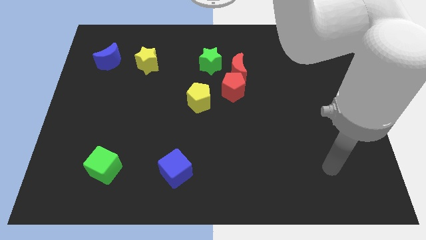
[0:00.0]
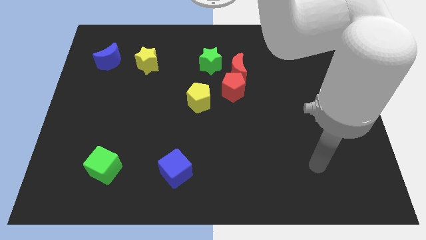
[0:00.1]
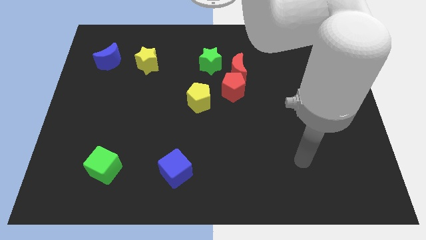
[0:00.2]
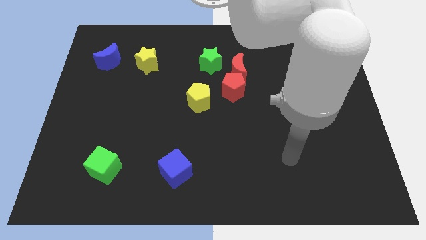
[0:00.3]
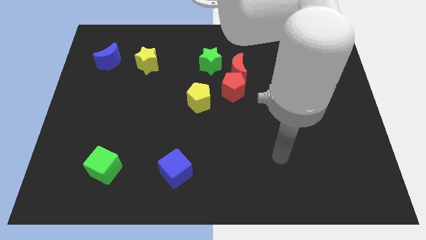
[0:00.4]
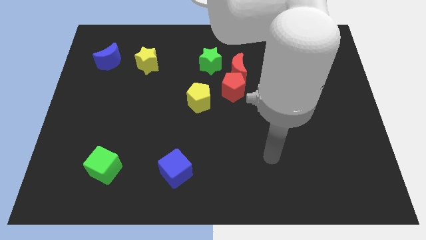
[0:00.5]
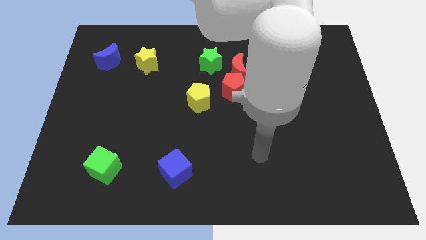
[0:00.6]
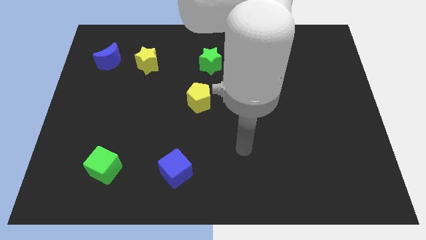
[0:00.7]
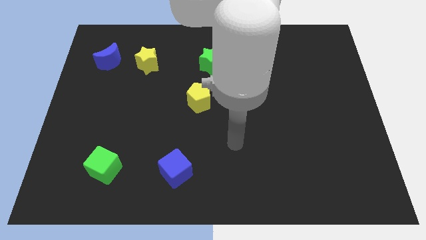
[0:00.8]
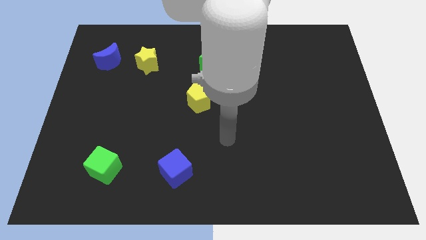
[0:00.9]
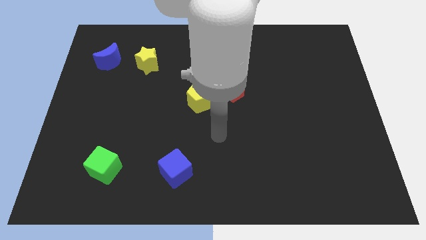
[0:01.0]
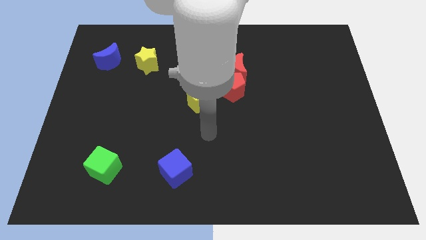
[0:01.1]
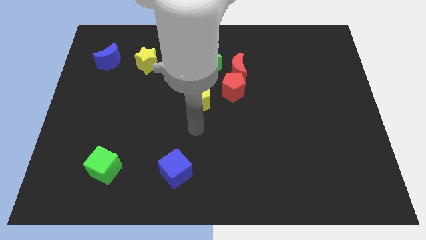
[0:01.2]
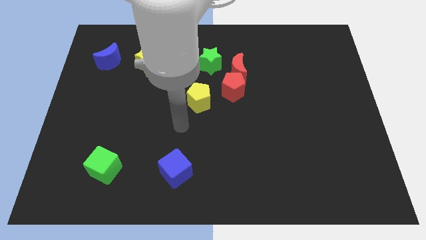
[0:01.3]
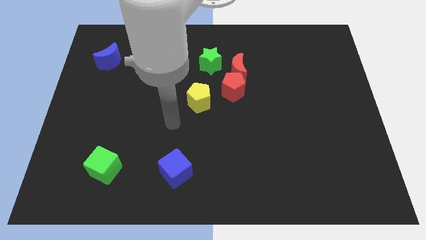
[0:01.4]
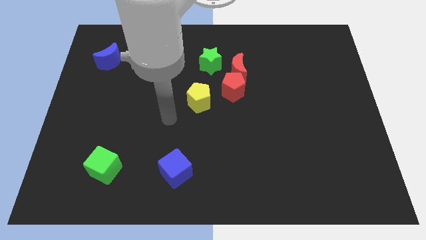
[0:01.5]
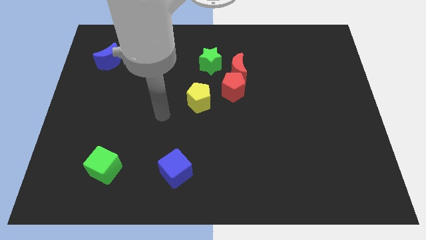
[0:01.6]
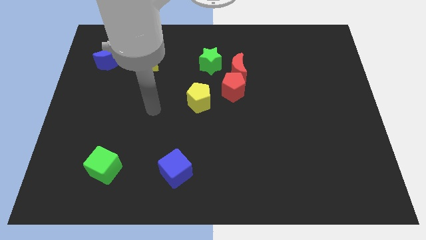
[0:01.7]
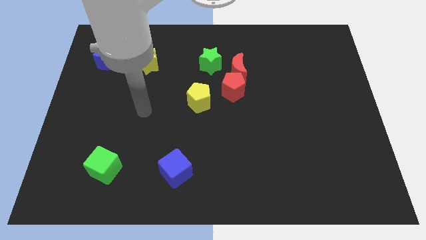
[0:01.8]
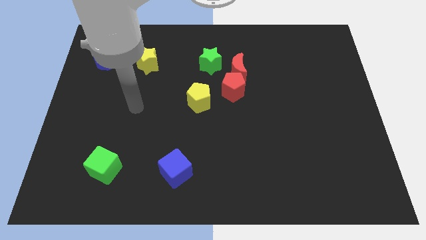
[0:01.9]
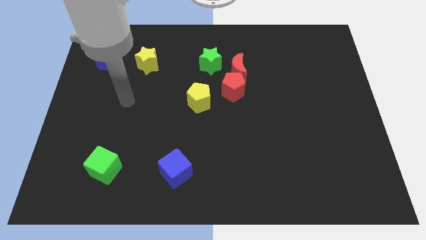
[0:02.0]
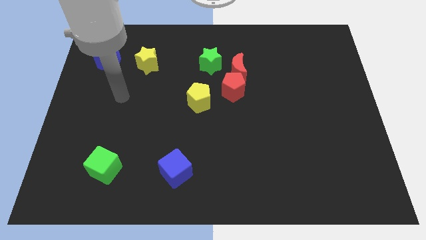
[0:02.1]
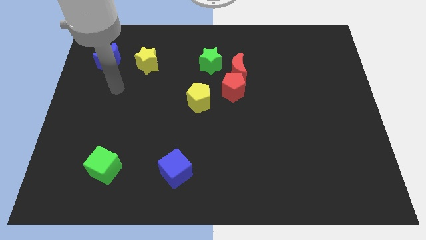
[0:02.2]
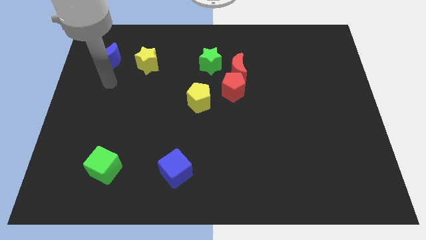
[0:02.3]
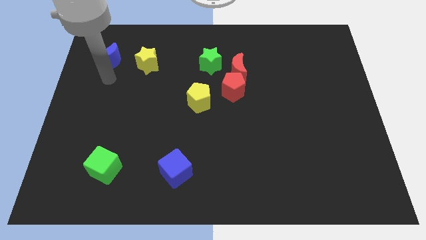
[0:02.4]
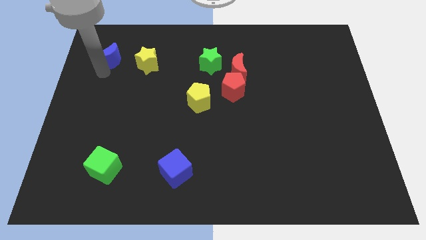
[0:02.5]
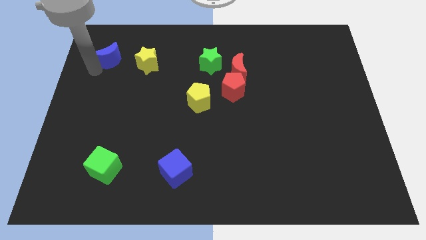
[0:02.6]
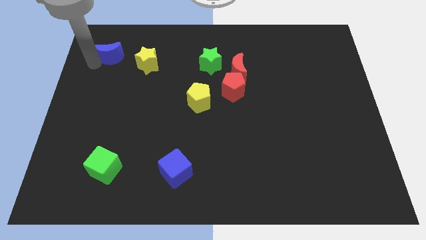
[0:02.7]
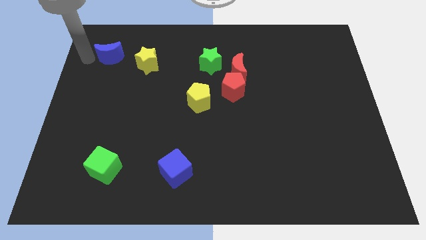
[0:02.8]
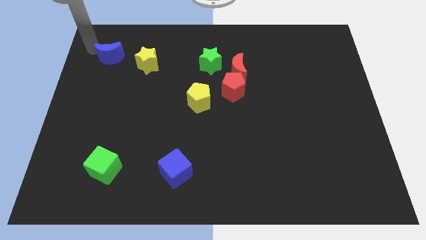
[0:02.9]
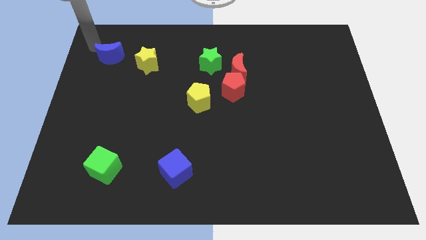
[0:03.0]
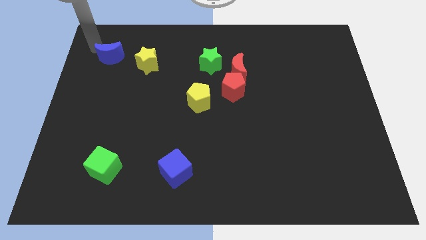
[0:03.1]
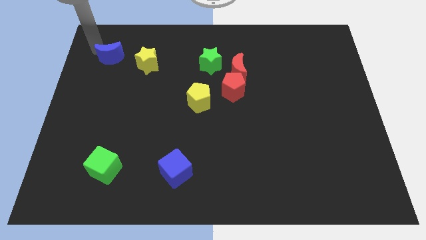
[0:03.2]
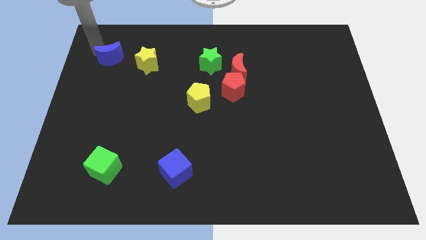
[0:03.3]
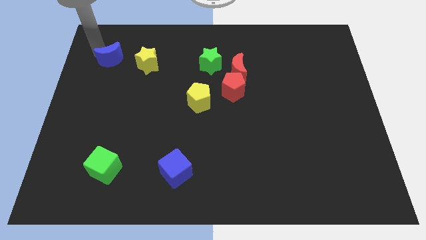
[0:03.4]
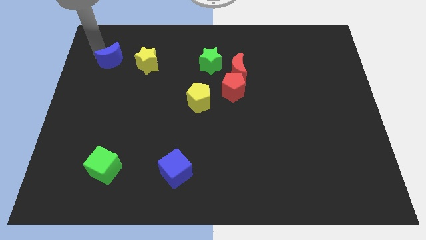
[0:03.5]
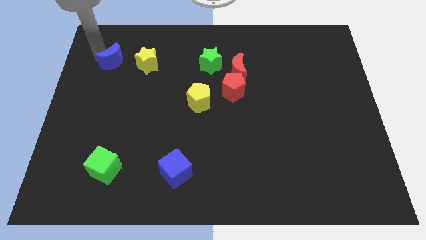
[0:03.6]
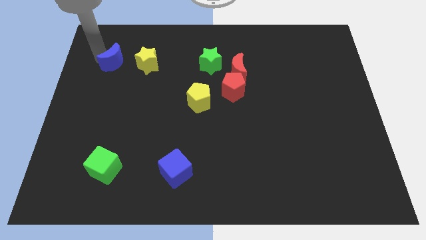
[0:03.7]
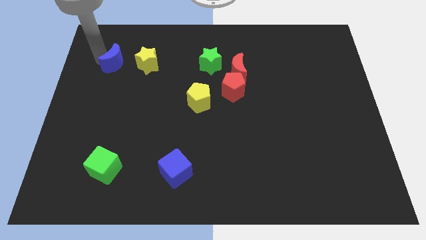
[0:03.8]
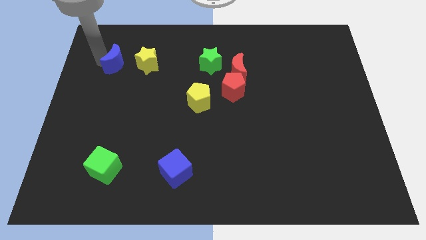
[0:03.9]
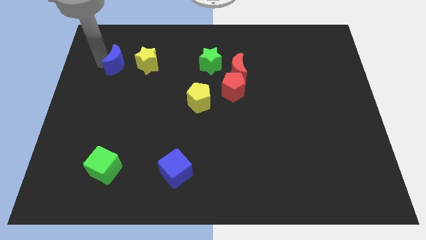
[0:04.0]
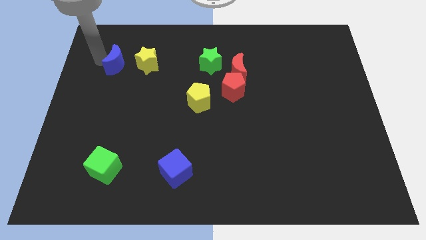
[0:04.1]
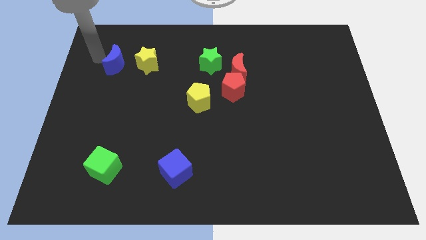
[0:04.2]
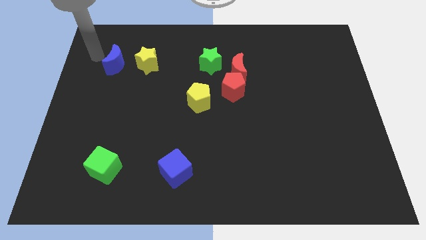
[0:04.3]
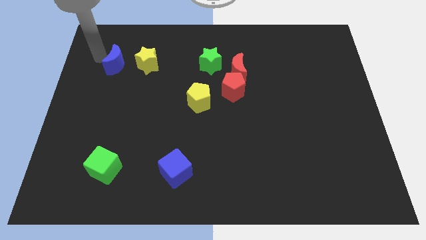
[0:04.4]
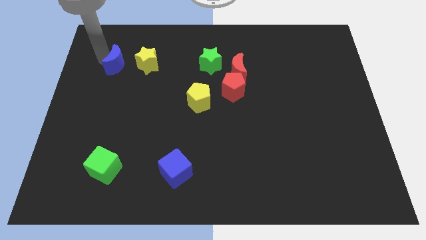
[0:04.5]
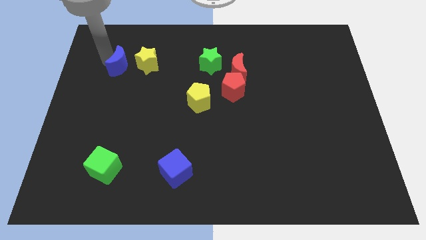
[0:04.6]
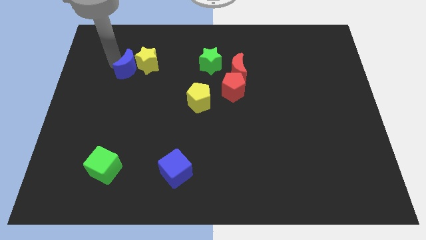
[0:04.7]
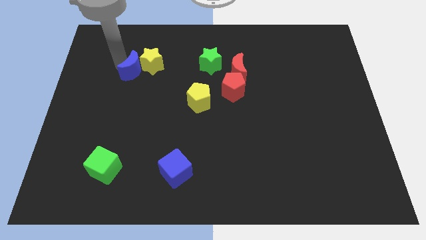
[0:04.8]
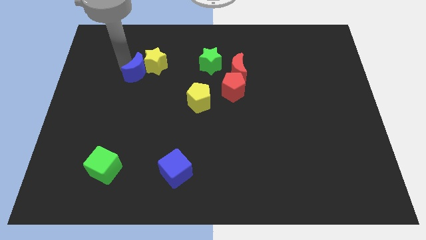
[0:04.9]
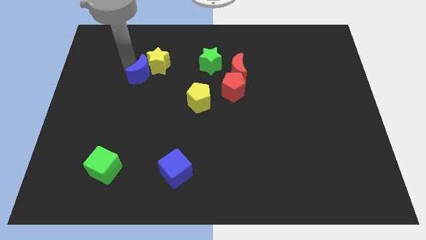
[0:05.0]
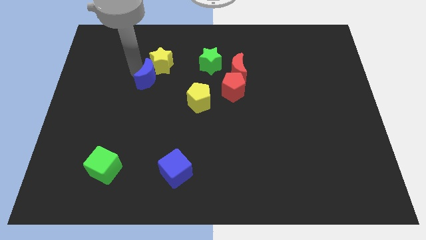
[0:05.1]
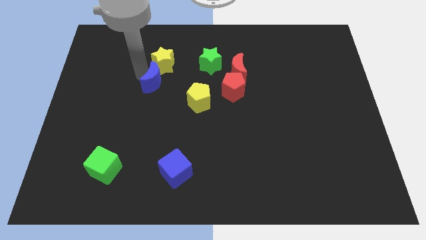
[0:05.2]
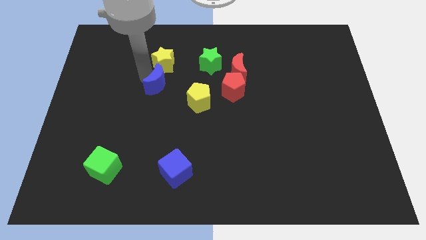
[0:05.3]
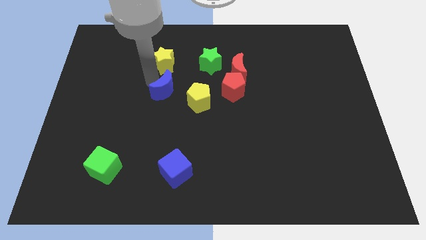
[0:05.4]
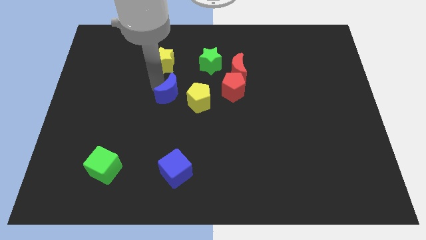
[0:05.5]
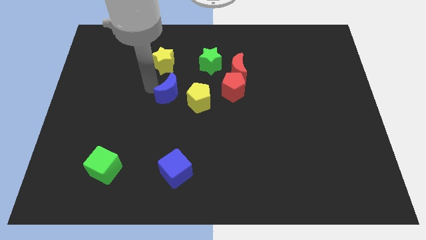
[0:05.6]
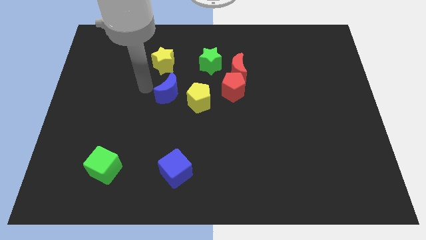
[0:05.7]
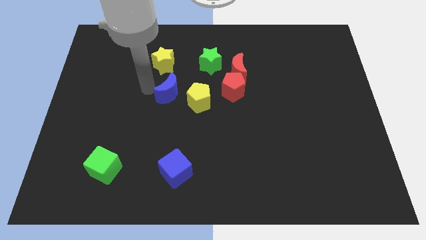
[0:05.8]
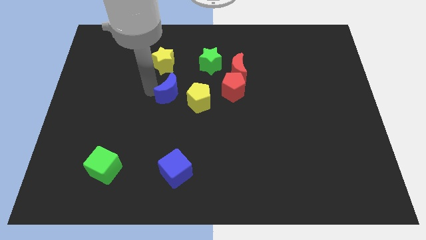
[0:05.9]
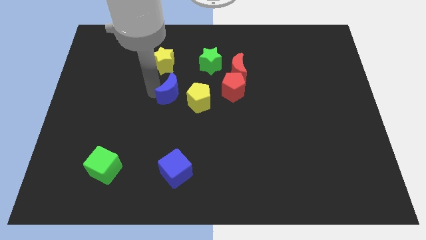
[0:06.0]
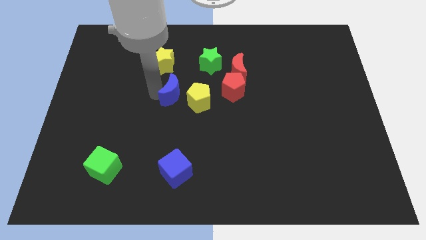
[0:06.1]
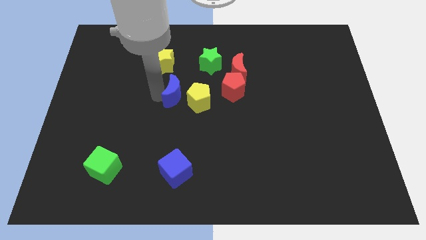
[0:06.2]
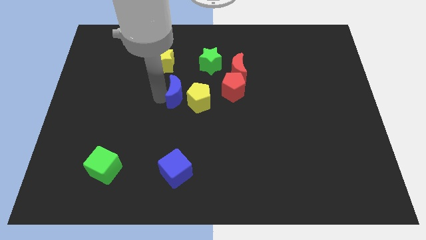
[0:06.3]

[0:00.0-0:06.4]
slide the blue moon towards the yellow pentagon

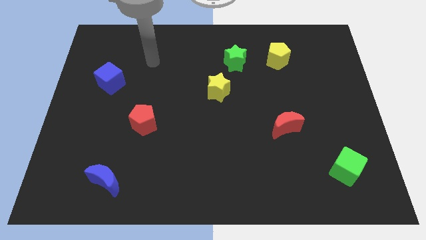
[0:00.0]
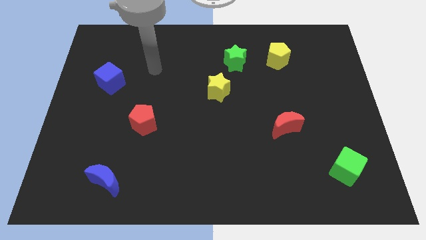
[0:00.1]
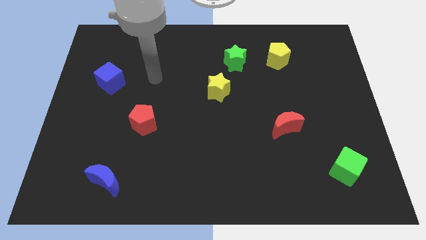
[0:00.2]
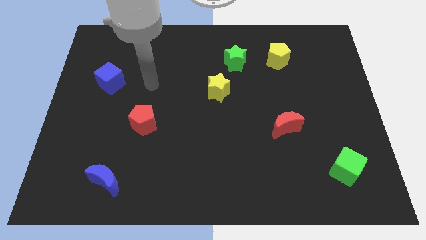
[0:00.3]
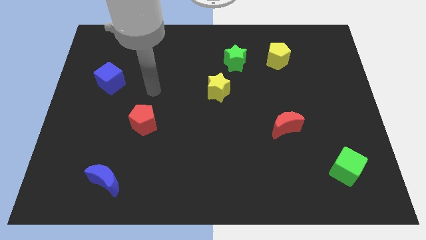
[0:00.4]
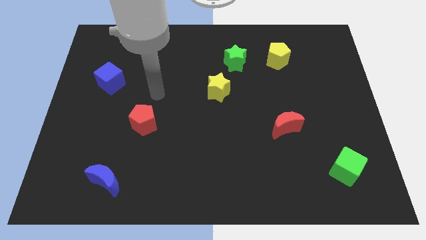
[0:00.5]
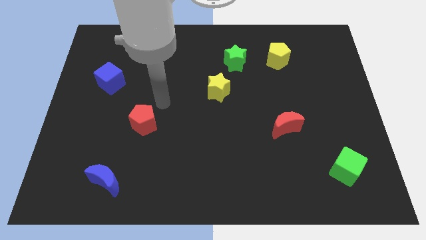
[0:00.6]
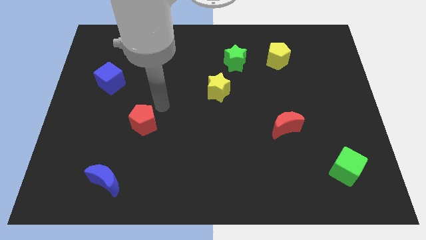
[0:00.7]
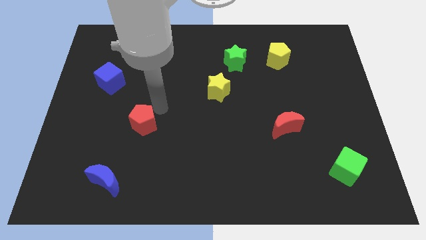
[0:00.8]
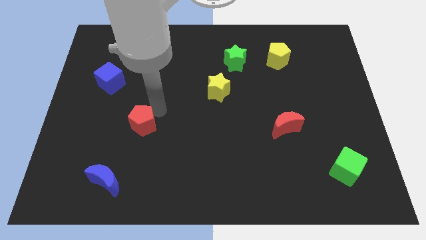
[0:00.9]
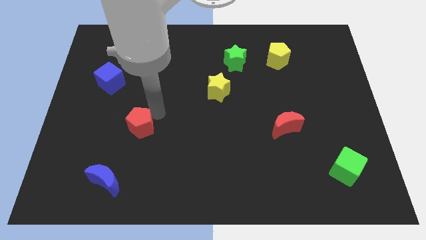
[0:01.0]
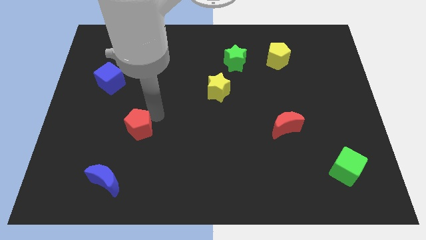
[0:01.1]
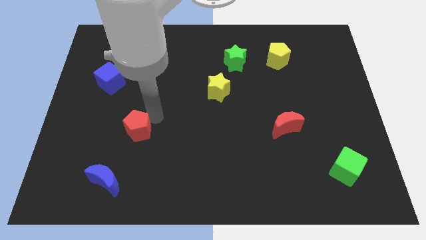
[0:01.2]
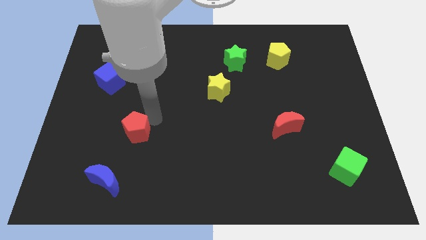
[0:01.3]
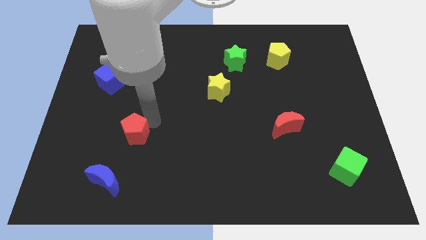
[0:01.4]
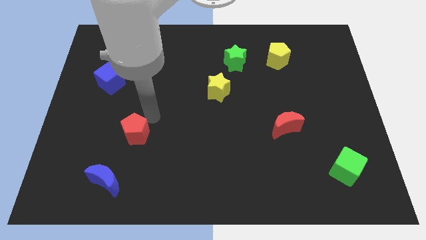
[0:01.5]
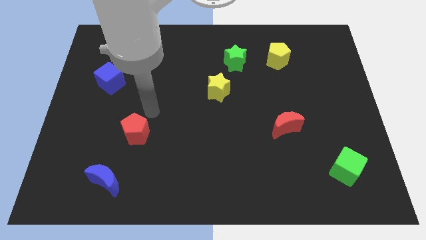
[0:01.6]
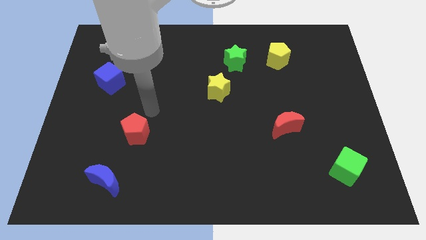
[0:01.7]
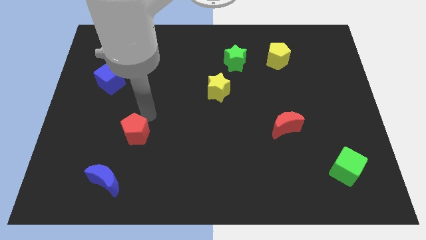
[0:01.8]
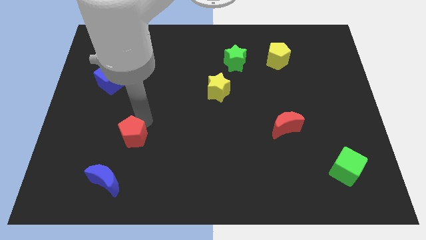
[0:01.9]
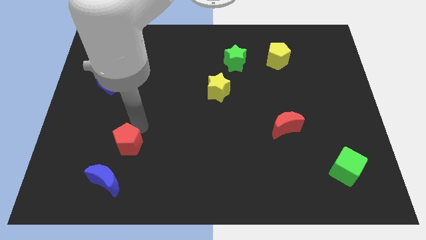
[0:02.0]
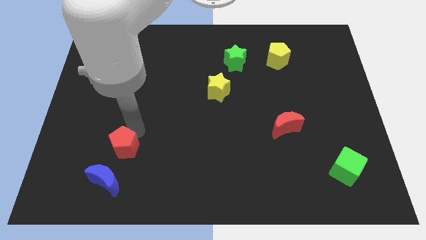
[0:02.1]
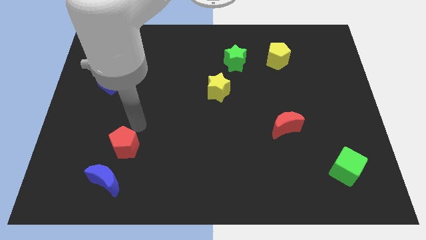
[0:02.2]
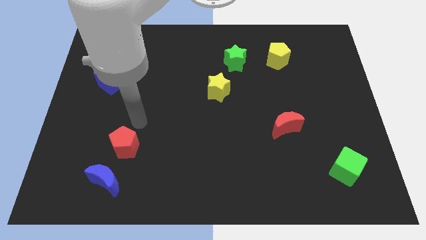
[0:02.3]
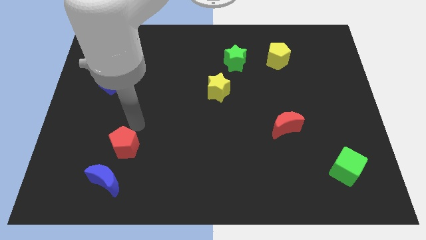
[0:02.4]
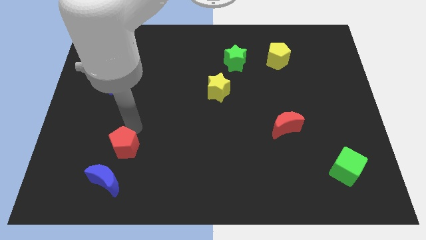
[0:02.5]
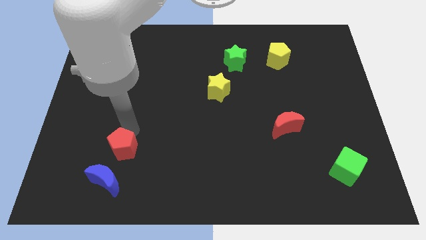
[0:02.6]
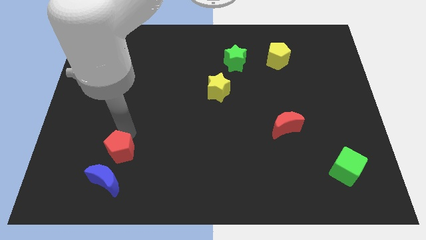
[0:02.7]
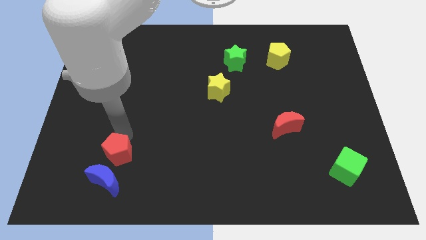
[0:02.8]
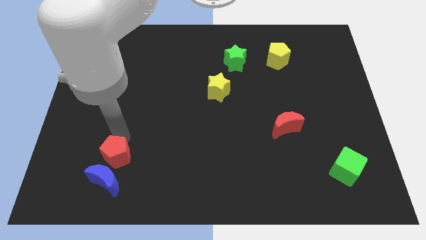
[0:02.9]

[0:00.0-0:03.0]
move the red pentagon towards the blue moon
